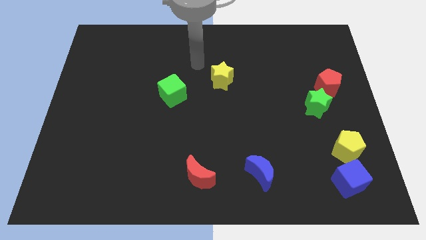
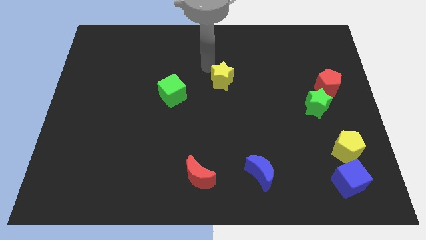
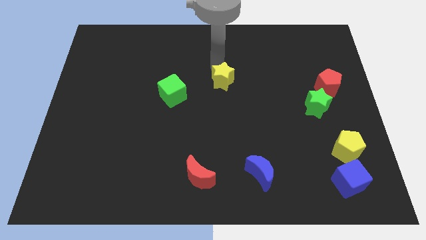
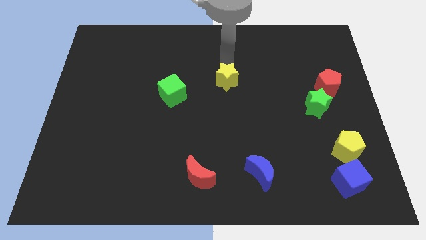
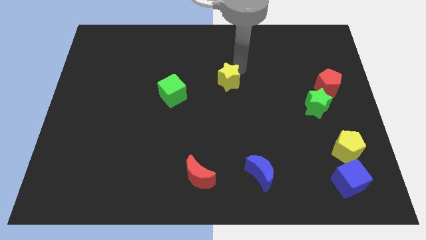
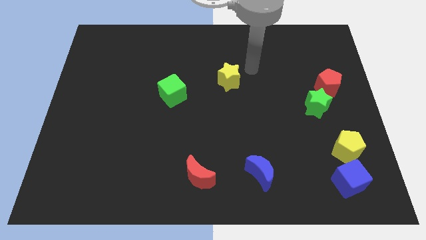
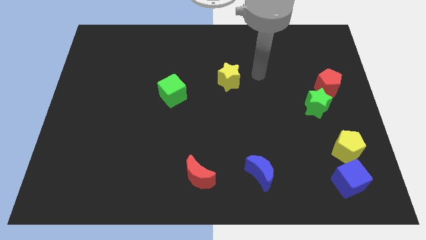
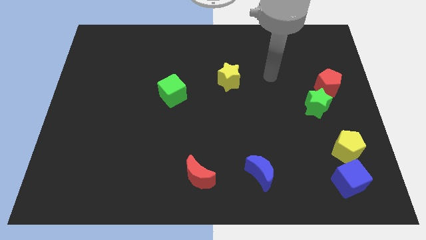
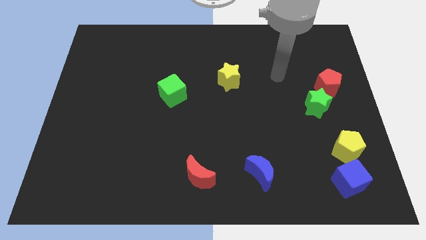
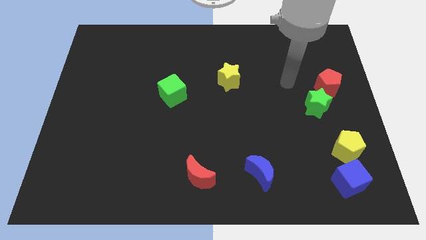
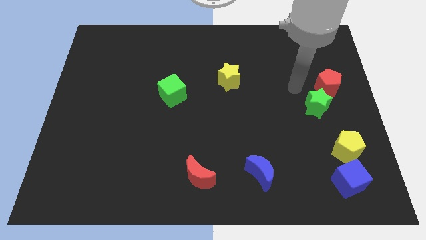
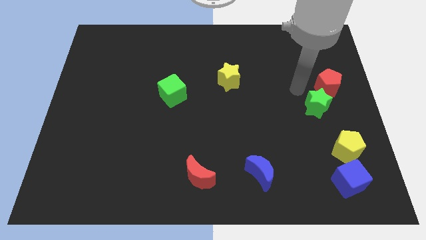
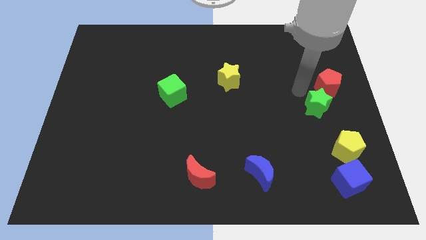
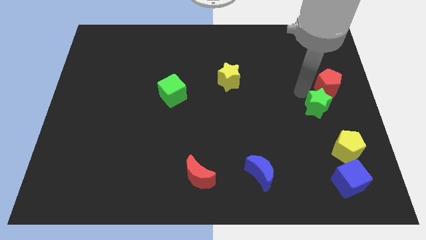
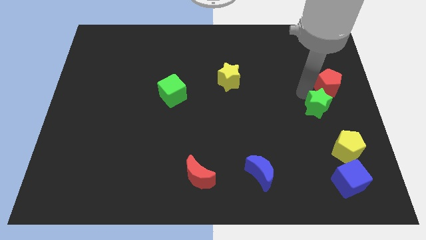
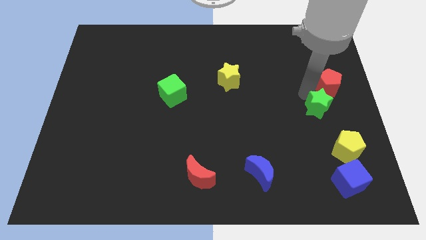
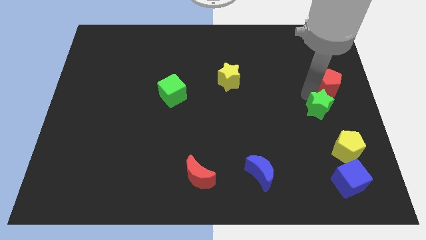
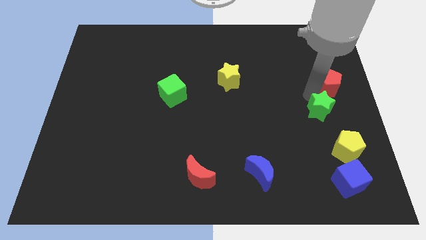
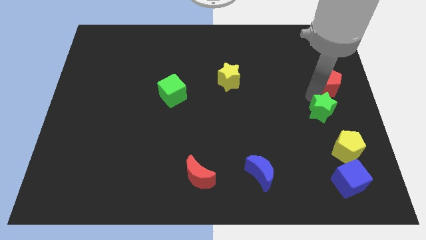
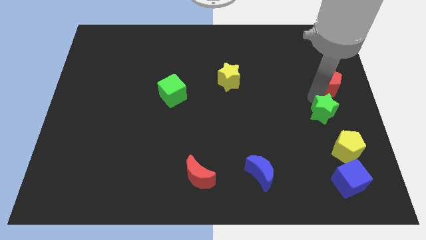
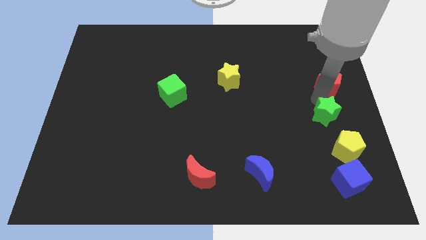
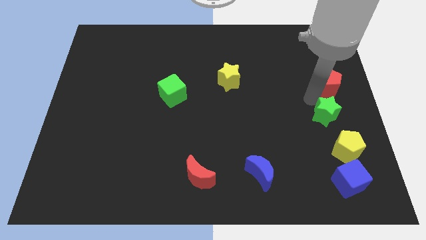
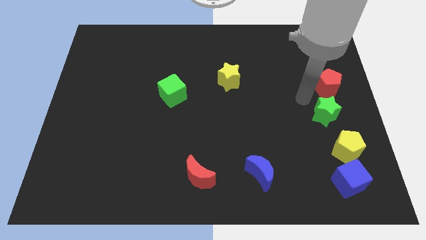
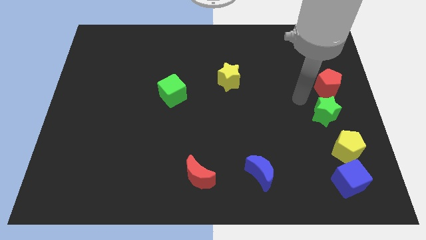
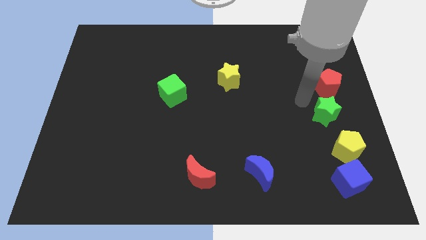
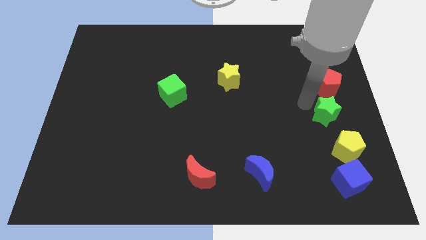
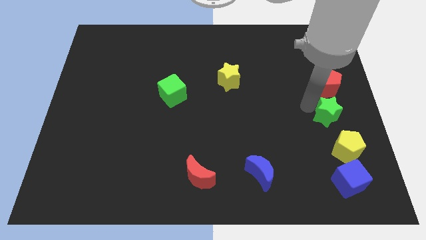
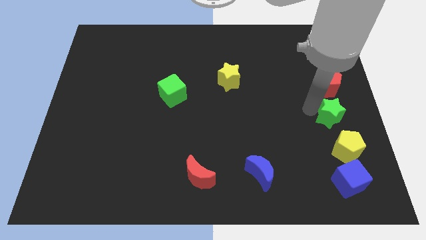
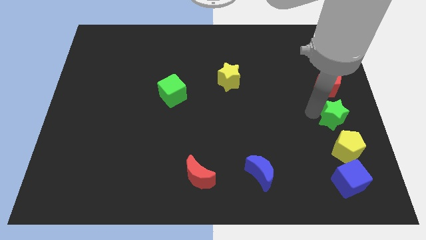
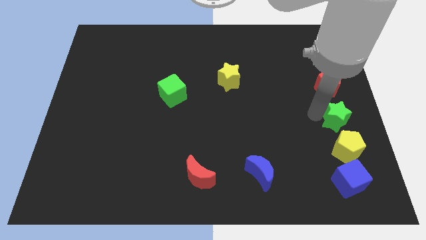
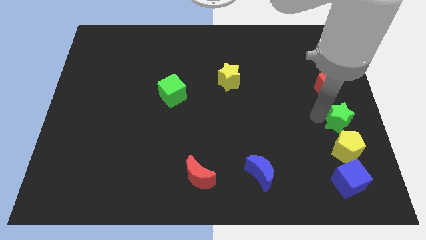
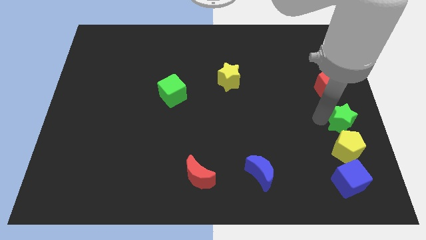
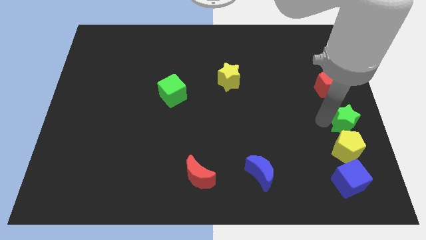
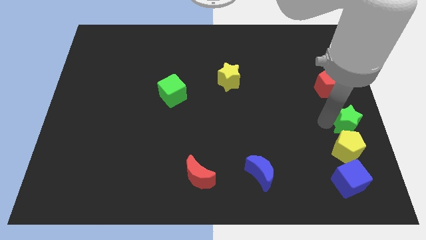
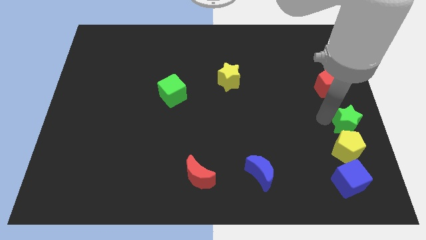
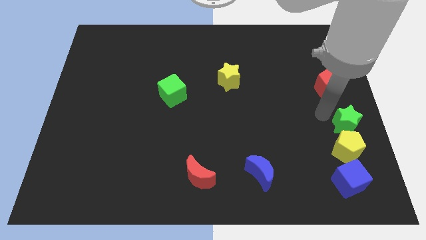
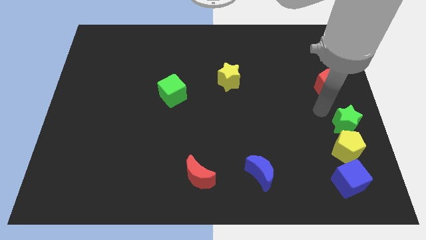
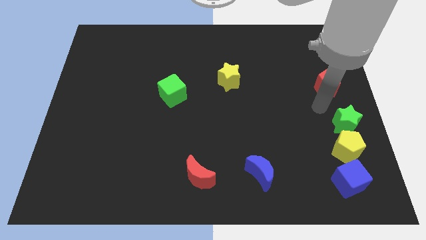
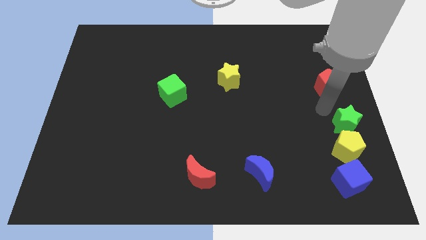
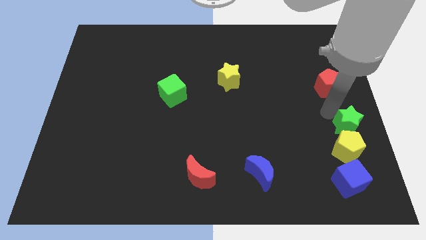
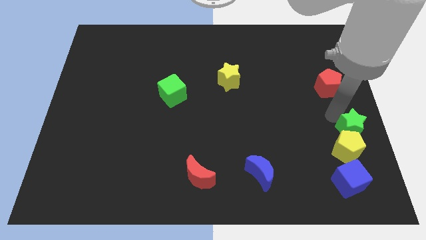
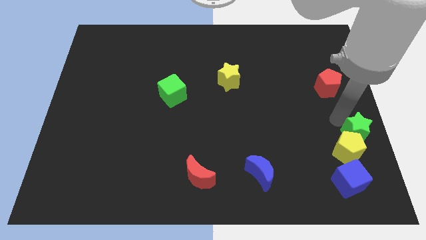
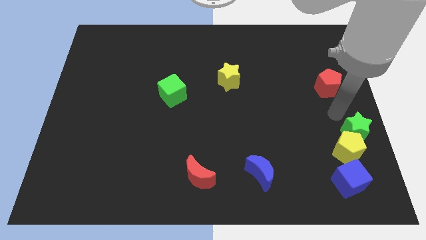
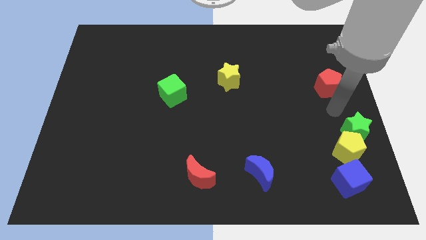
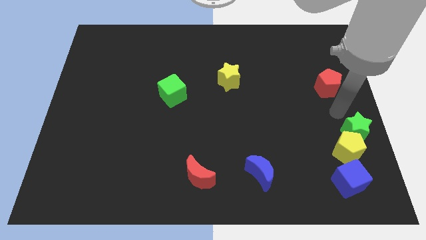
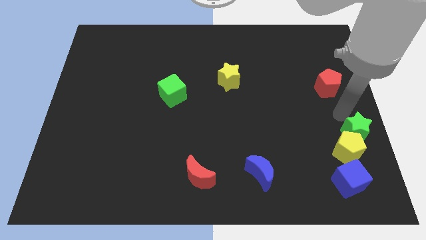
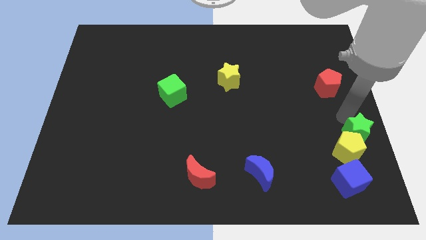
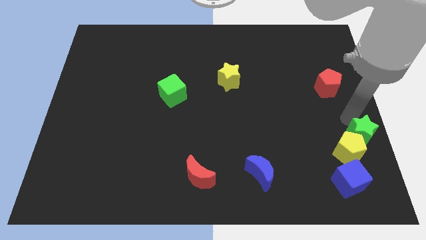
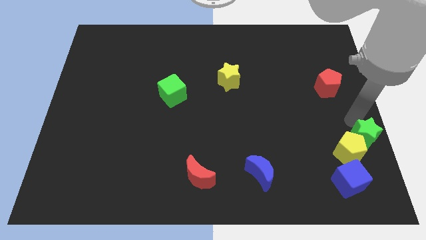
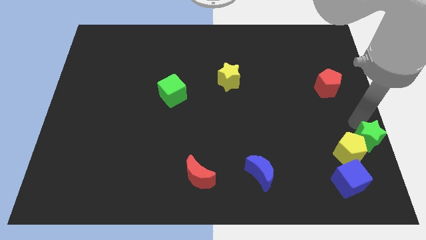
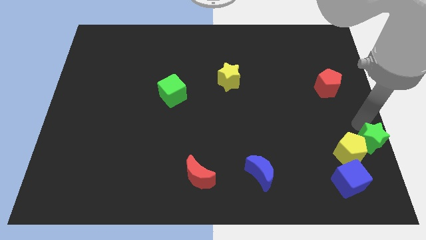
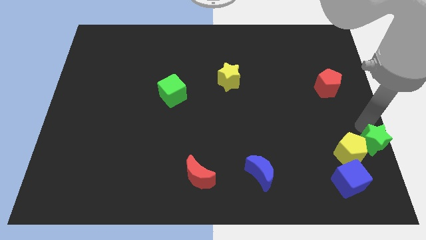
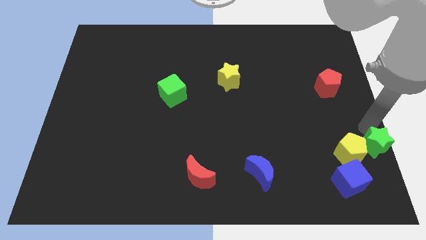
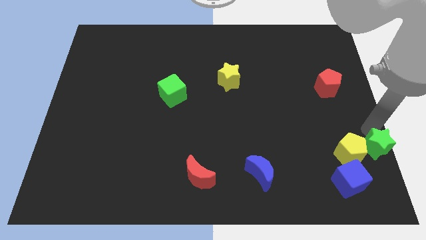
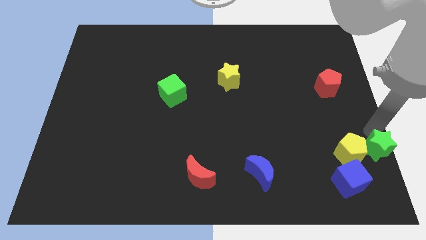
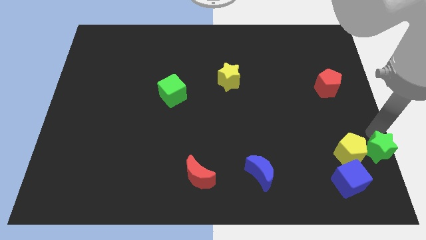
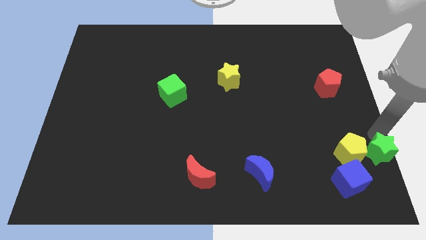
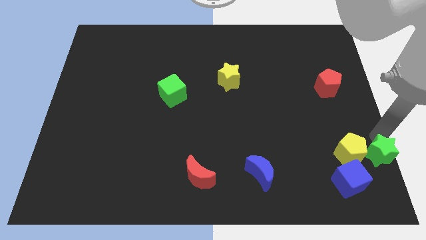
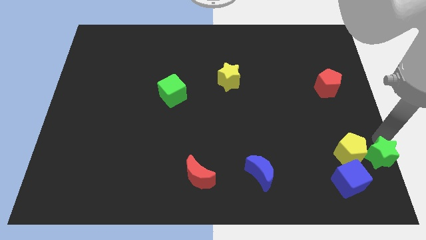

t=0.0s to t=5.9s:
put the green star to the lower right corner

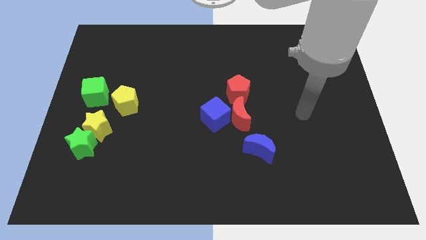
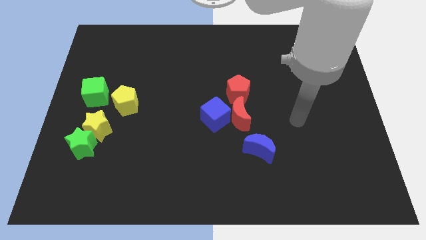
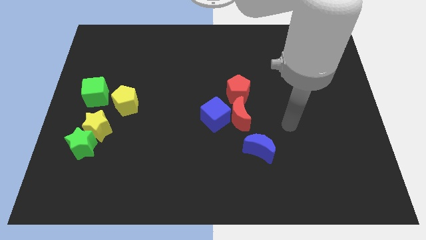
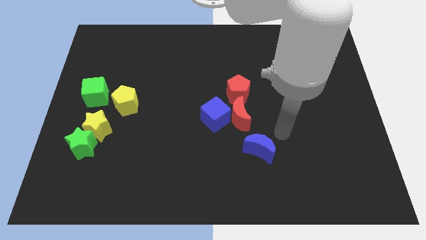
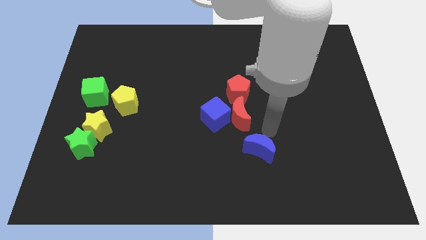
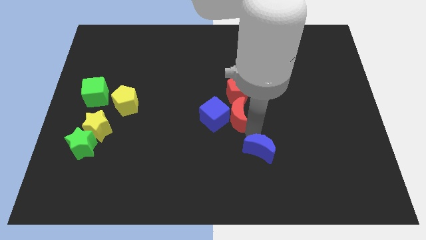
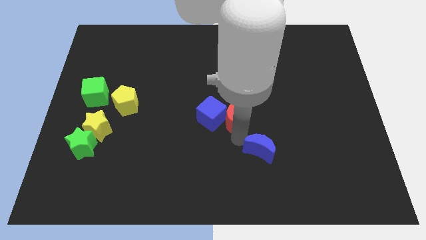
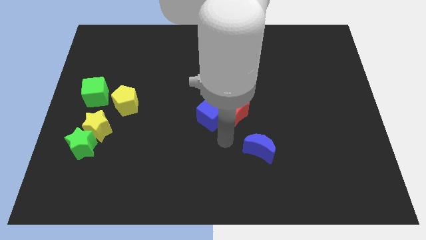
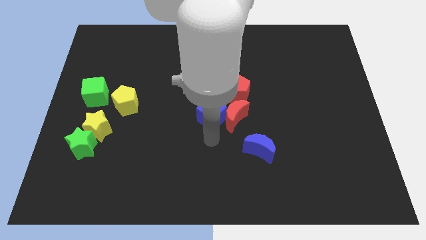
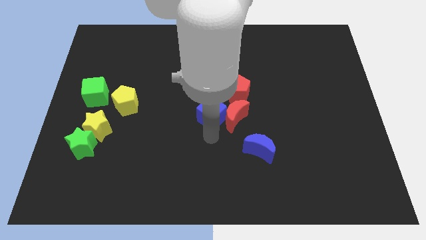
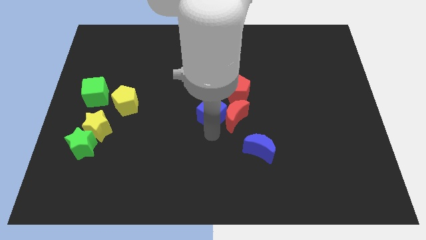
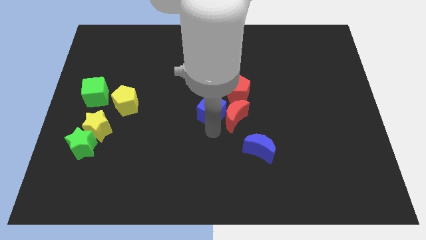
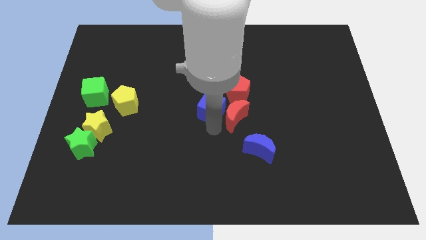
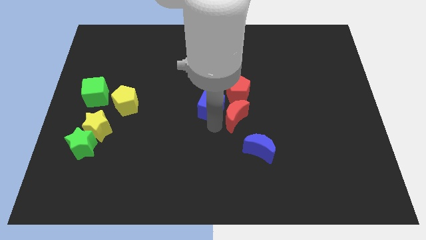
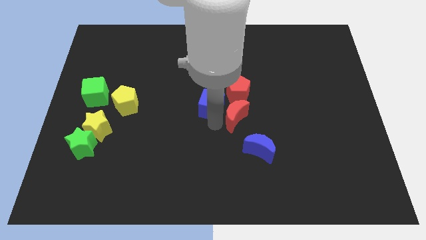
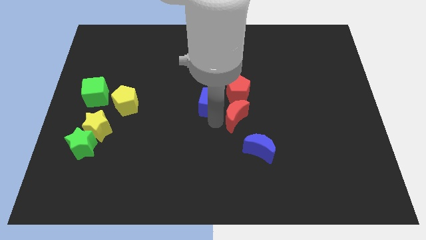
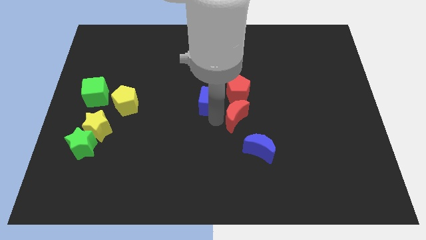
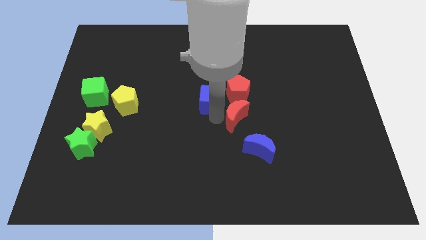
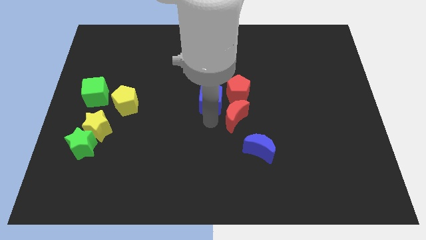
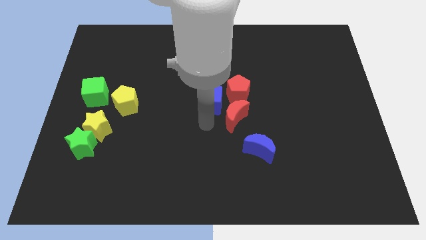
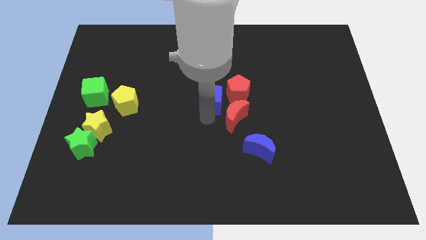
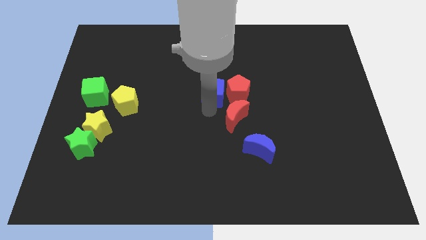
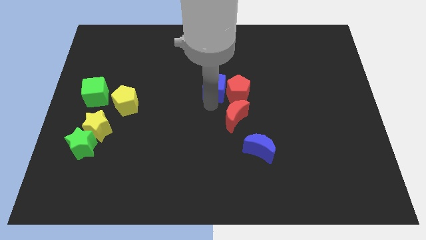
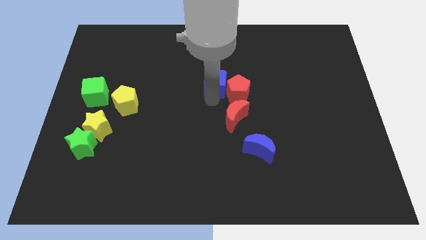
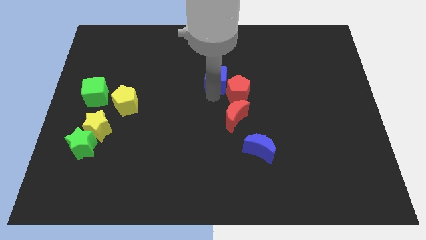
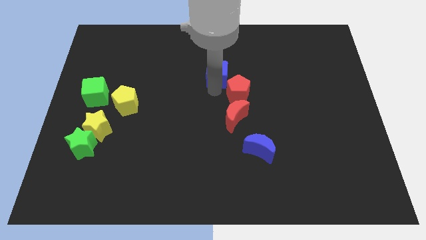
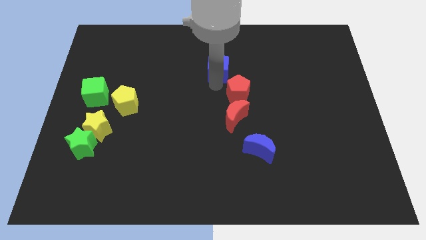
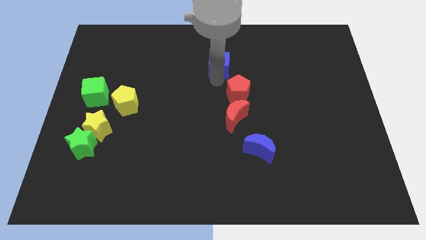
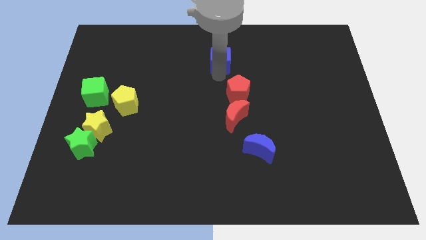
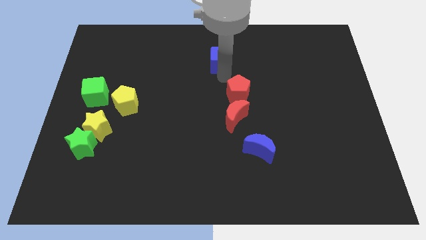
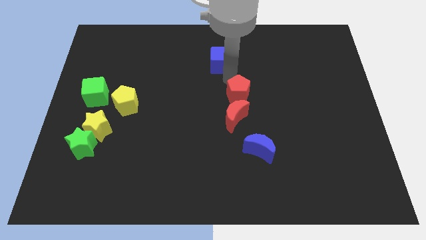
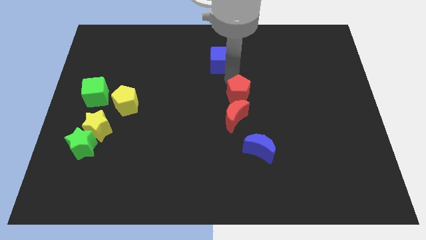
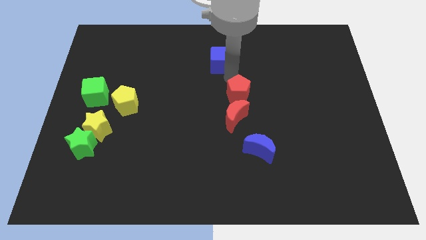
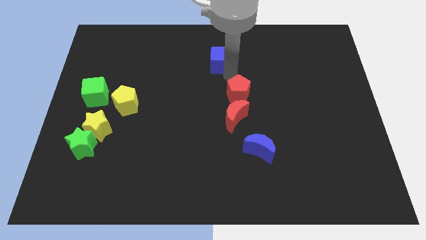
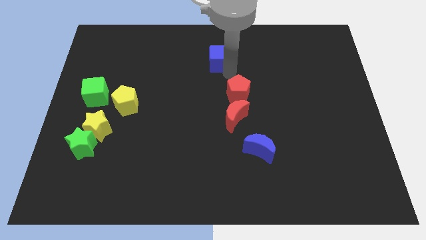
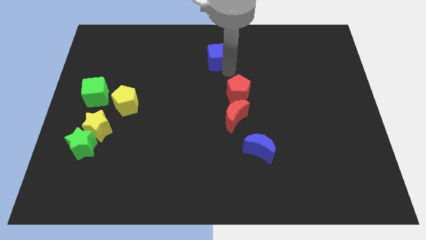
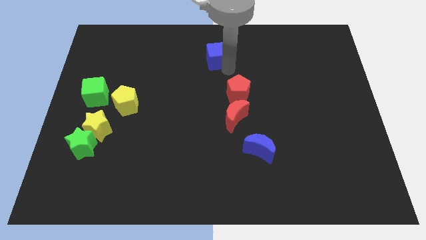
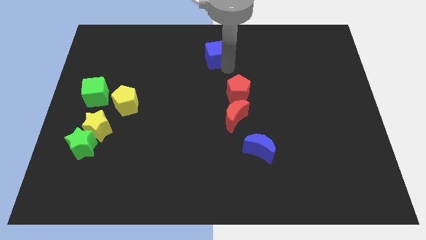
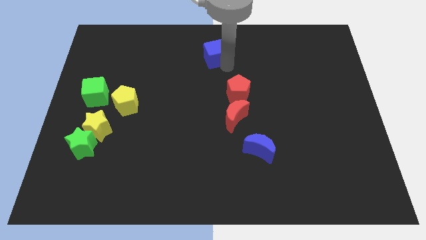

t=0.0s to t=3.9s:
slide the blue cube to the top
